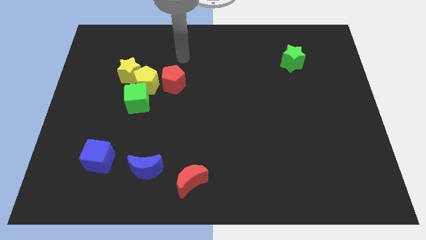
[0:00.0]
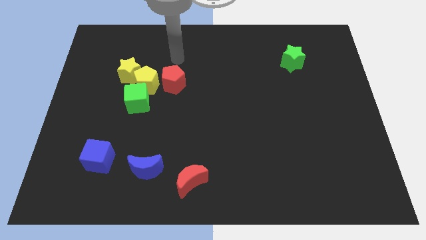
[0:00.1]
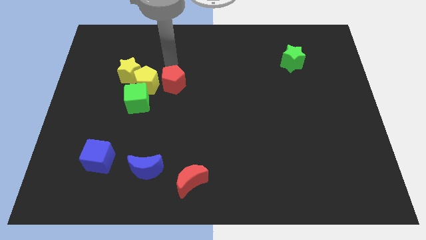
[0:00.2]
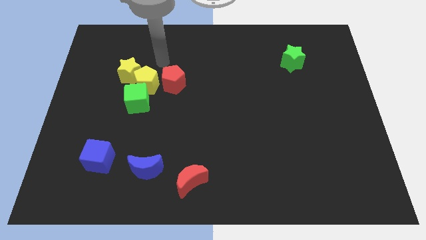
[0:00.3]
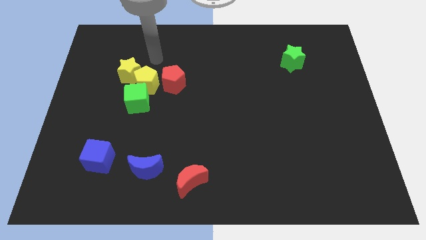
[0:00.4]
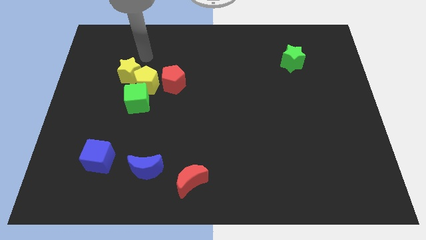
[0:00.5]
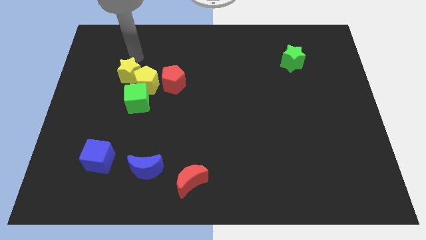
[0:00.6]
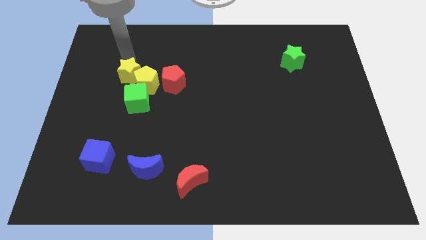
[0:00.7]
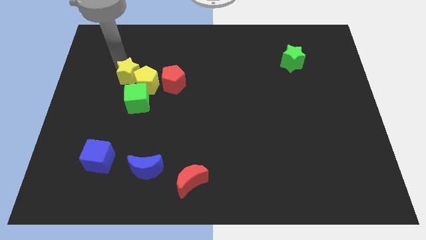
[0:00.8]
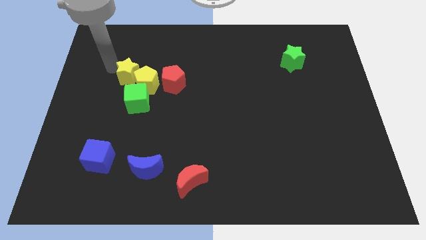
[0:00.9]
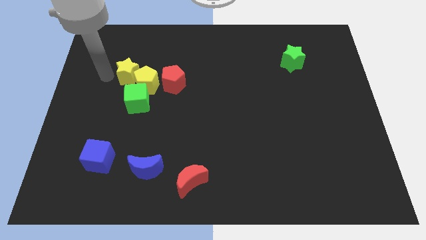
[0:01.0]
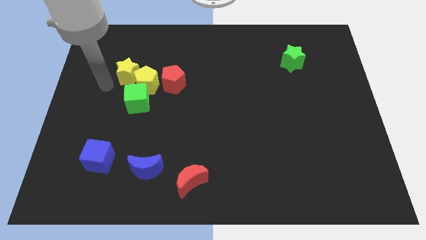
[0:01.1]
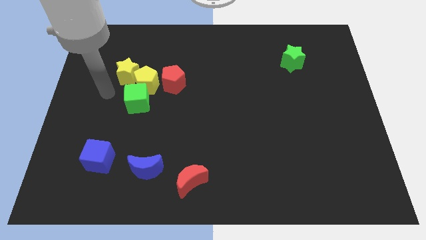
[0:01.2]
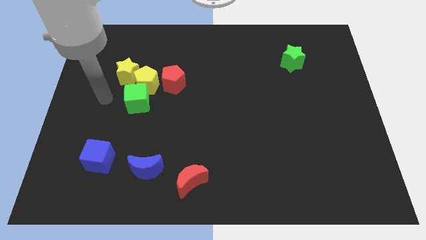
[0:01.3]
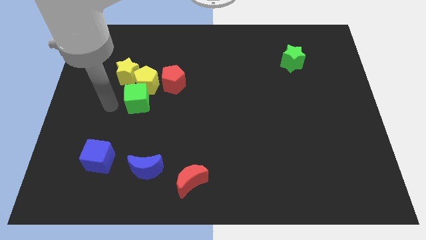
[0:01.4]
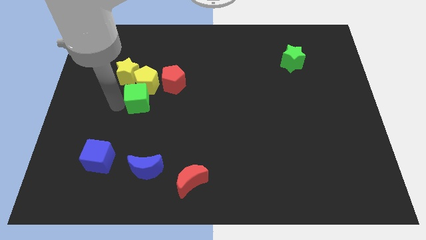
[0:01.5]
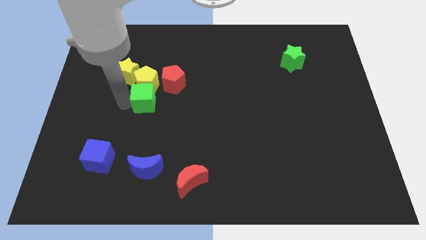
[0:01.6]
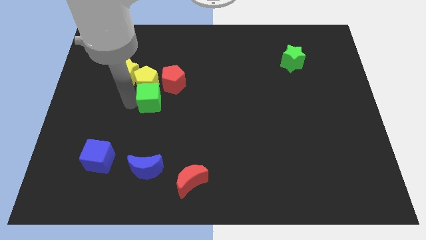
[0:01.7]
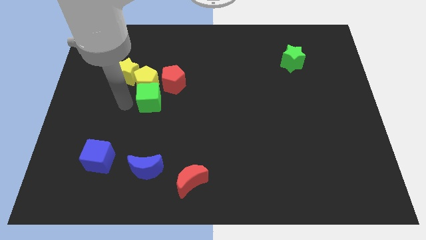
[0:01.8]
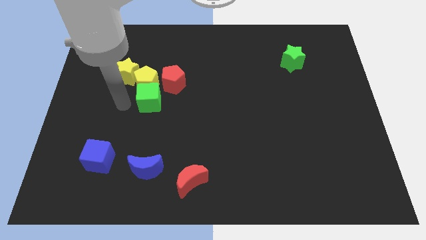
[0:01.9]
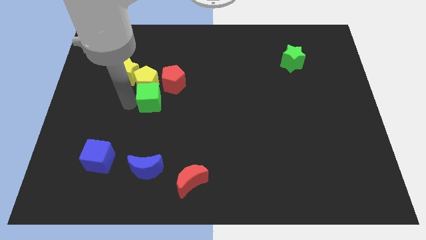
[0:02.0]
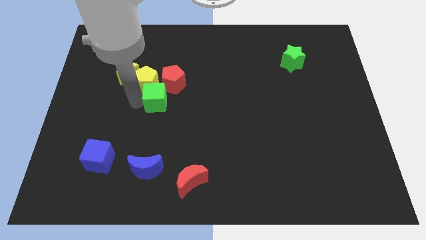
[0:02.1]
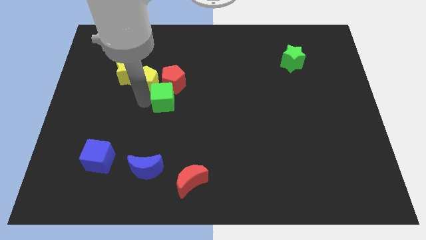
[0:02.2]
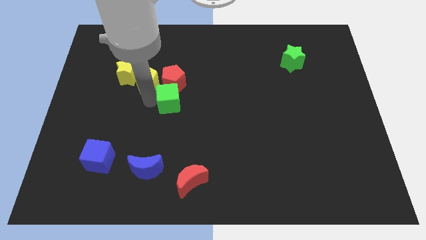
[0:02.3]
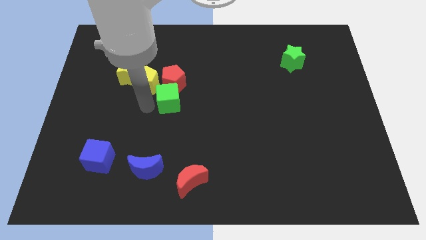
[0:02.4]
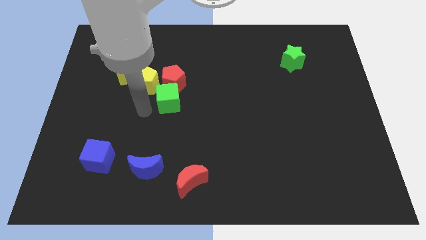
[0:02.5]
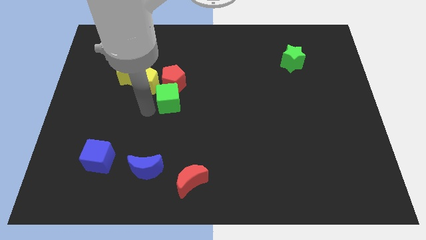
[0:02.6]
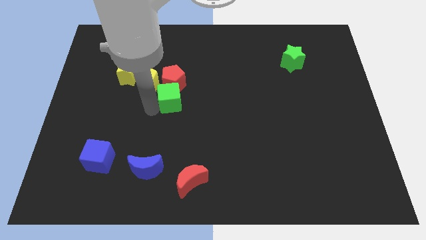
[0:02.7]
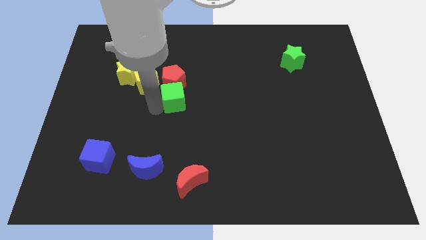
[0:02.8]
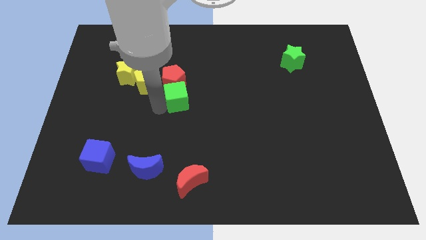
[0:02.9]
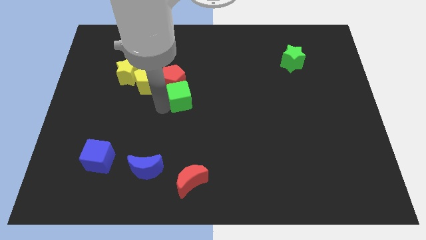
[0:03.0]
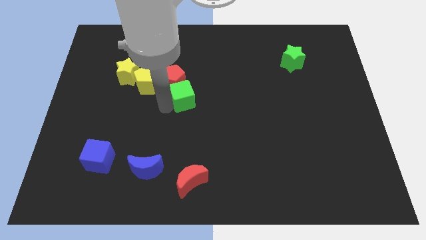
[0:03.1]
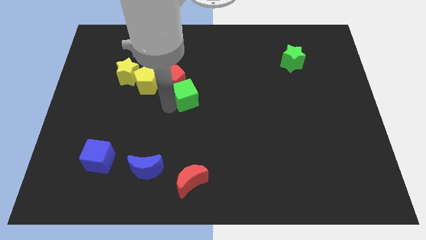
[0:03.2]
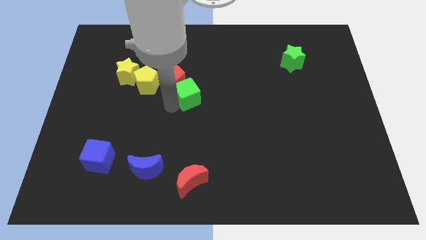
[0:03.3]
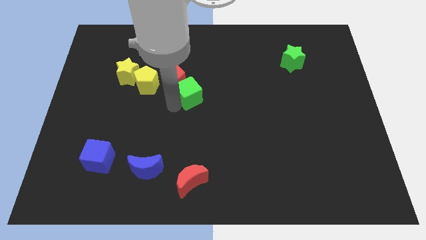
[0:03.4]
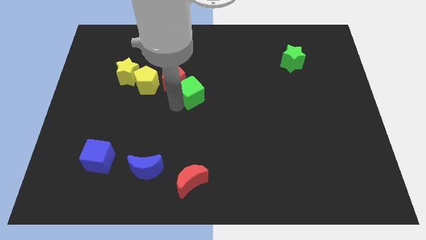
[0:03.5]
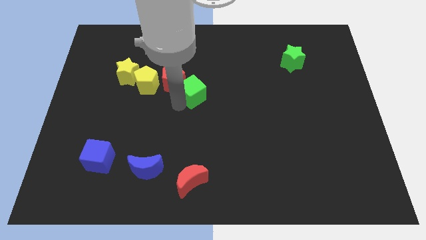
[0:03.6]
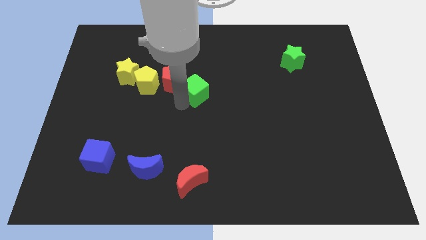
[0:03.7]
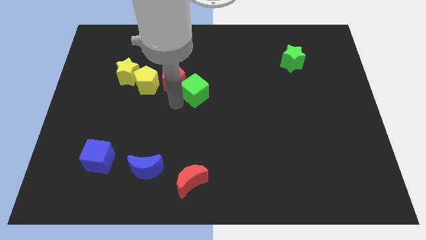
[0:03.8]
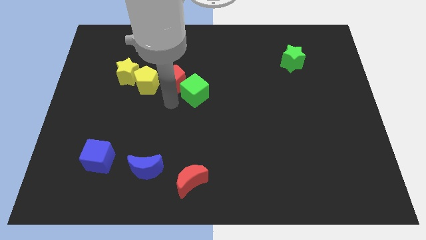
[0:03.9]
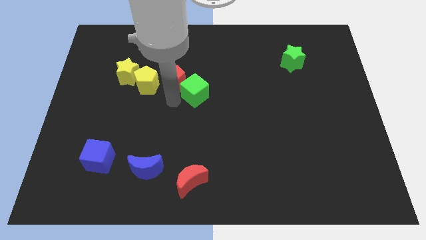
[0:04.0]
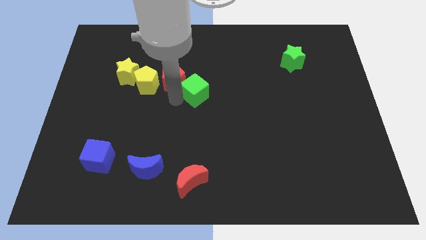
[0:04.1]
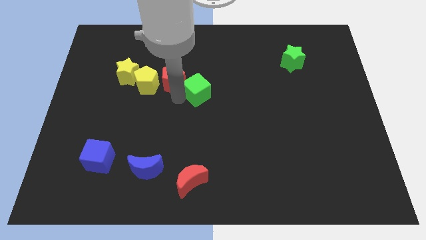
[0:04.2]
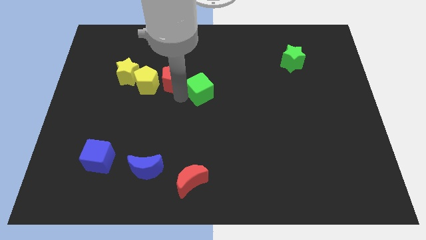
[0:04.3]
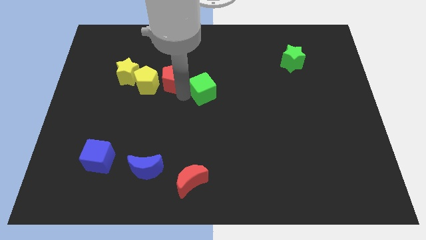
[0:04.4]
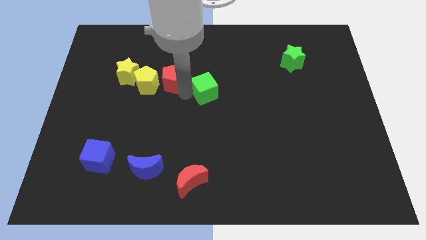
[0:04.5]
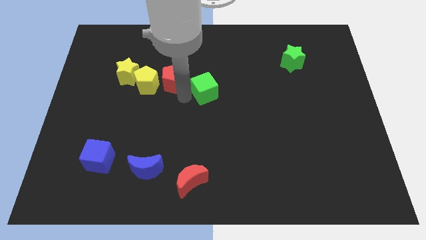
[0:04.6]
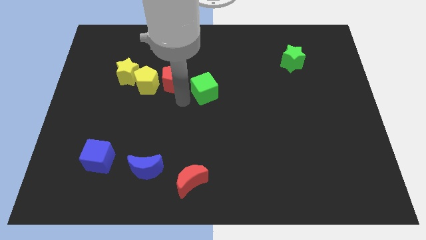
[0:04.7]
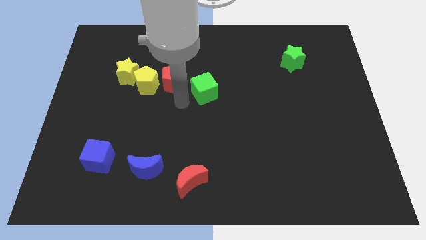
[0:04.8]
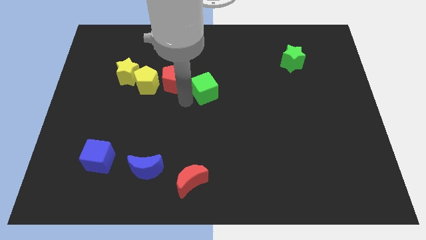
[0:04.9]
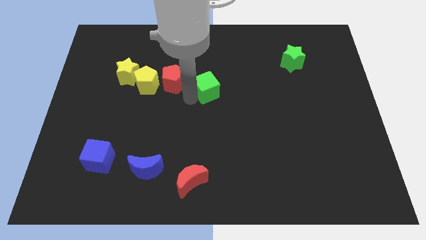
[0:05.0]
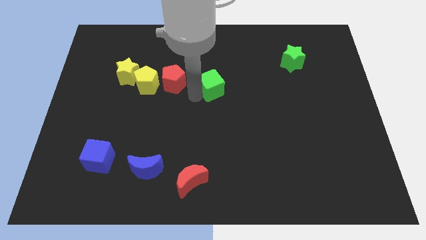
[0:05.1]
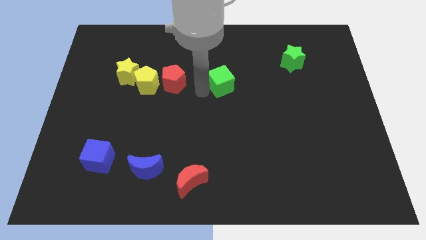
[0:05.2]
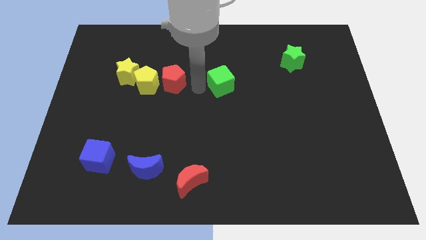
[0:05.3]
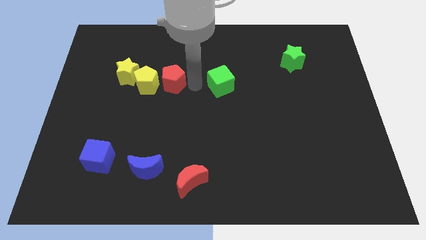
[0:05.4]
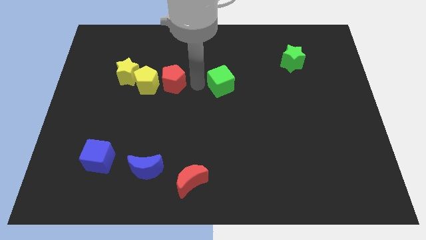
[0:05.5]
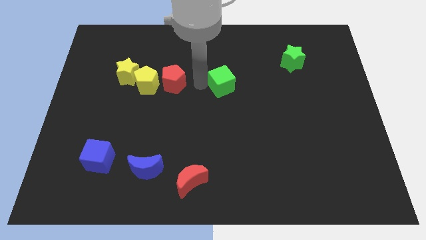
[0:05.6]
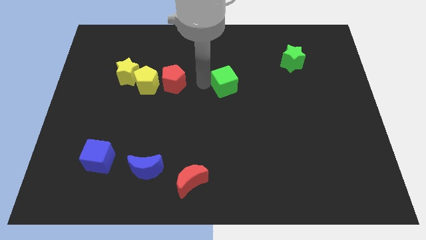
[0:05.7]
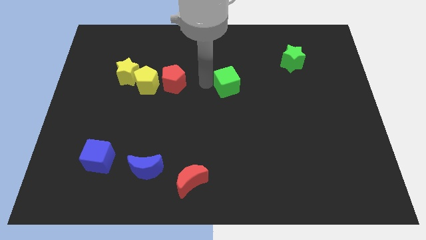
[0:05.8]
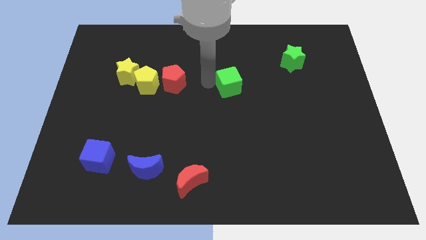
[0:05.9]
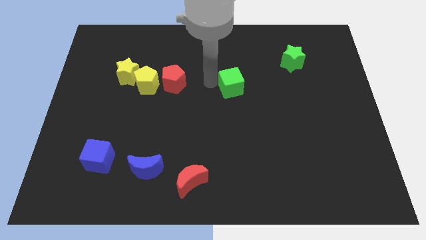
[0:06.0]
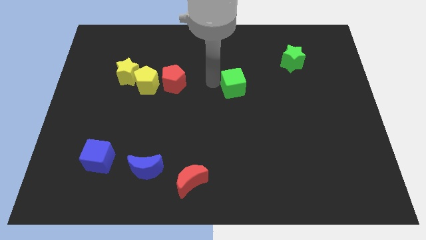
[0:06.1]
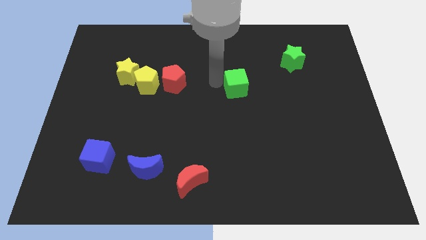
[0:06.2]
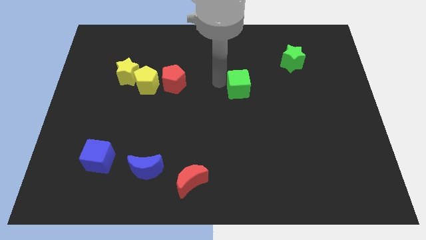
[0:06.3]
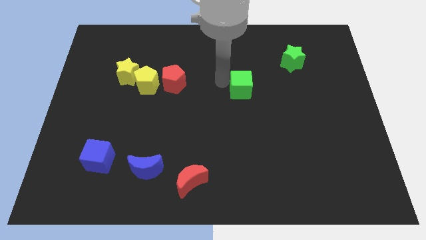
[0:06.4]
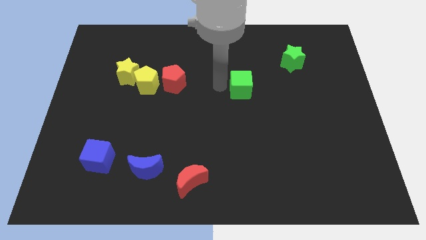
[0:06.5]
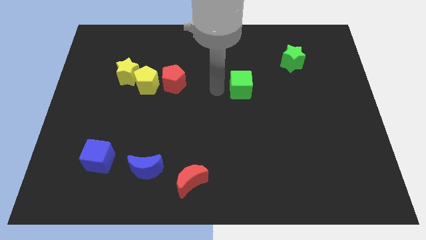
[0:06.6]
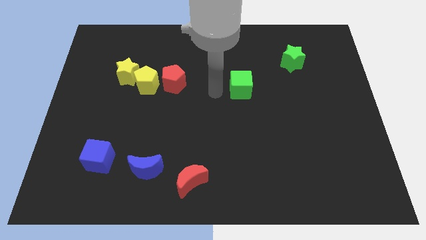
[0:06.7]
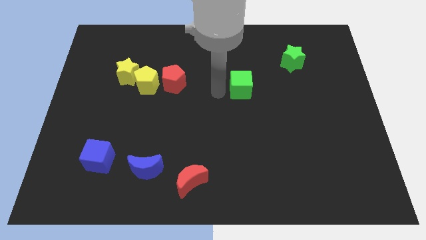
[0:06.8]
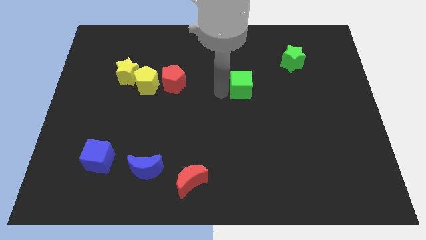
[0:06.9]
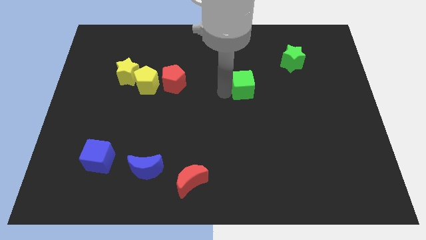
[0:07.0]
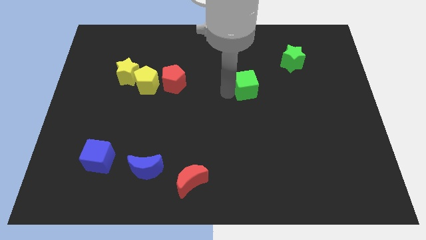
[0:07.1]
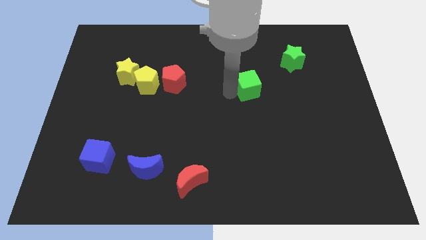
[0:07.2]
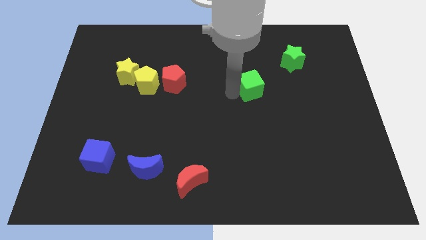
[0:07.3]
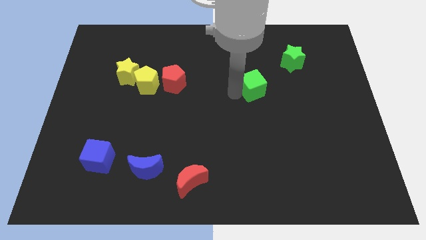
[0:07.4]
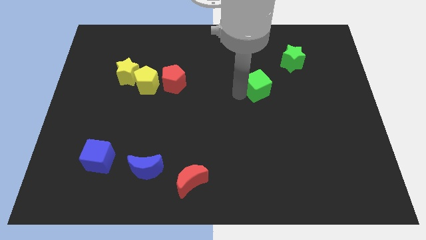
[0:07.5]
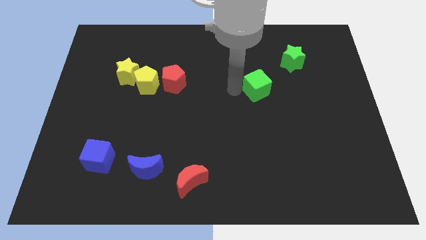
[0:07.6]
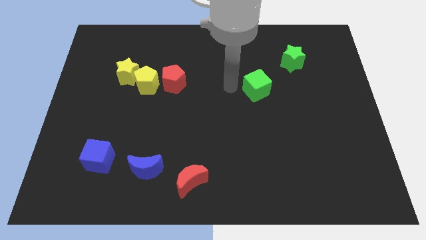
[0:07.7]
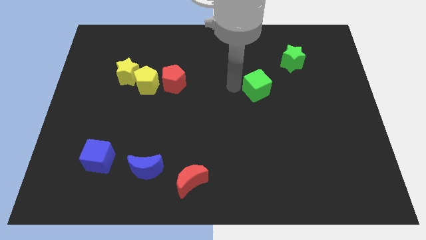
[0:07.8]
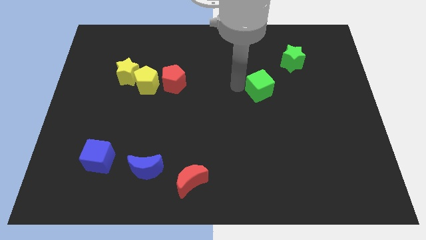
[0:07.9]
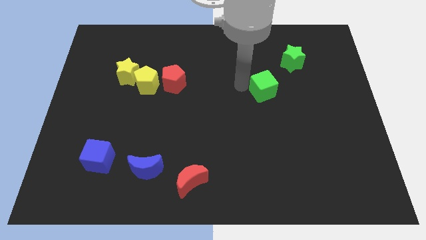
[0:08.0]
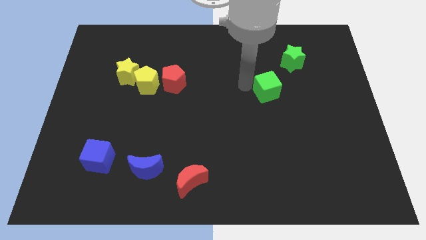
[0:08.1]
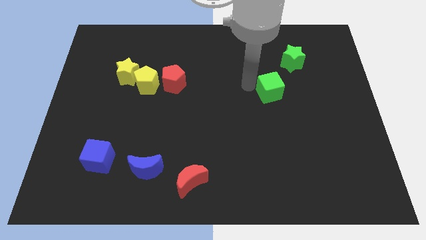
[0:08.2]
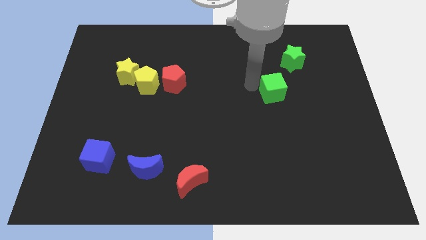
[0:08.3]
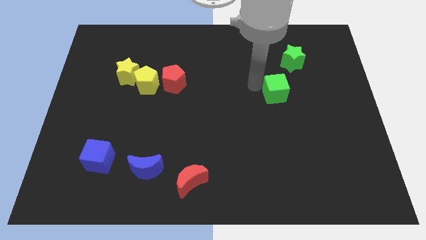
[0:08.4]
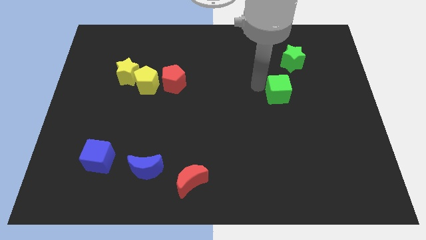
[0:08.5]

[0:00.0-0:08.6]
push the green cube to the bottom side of the green star
